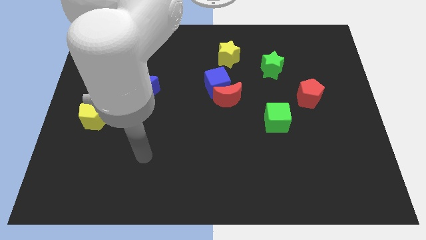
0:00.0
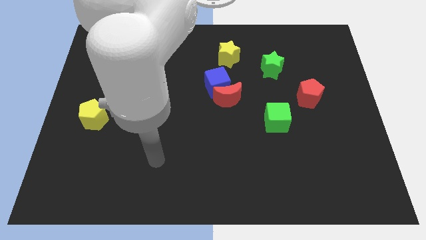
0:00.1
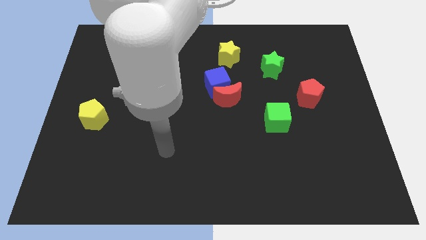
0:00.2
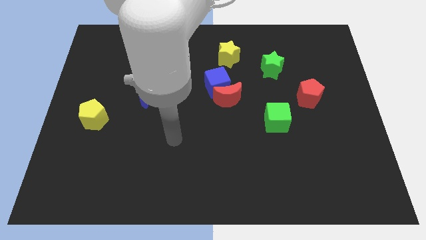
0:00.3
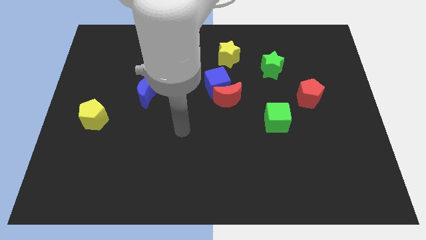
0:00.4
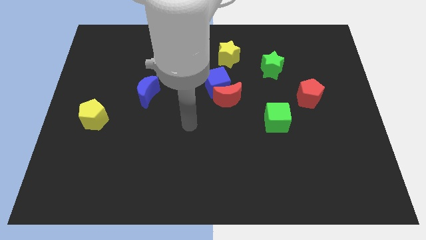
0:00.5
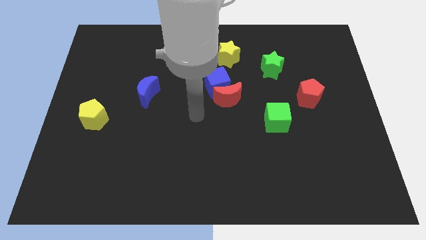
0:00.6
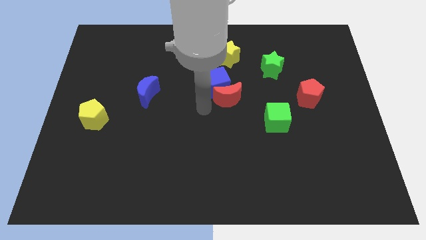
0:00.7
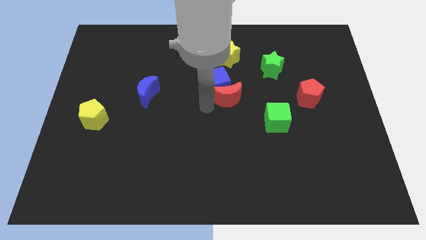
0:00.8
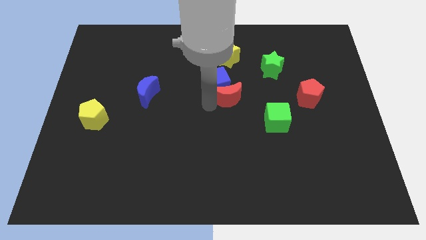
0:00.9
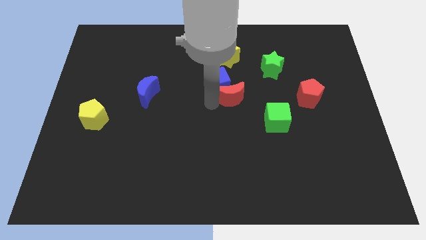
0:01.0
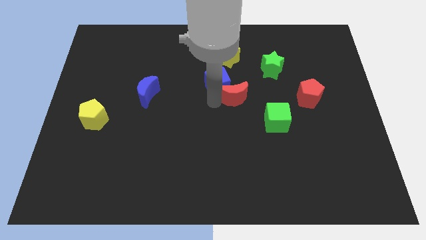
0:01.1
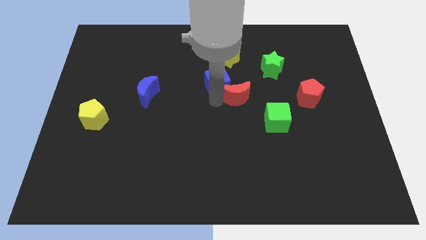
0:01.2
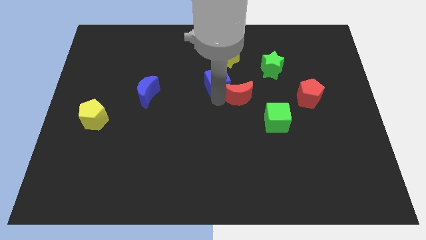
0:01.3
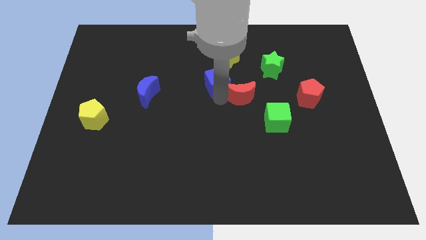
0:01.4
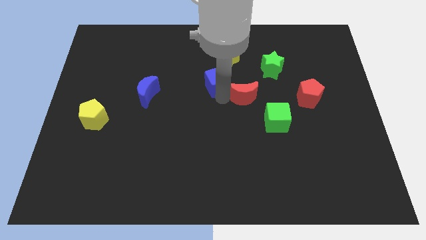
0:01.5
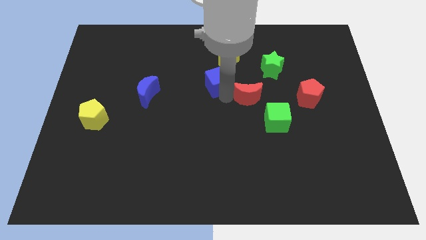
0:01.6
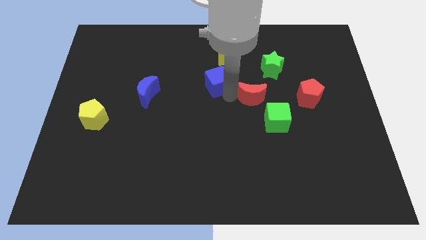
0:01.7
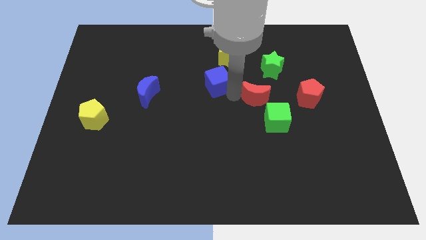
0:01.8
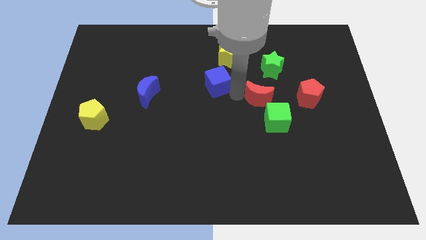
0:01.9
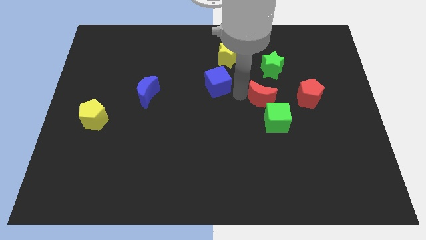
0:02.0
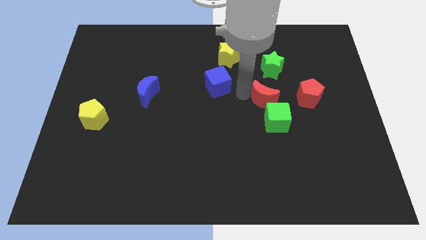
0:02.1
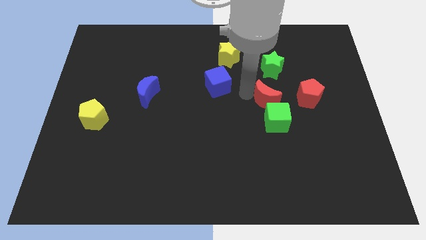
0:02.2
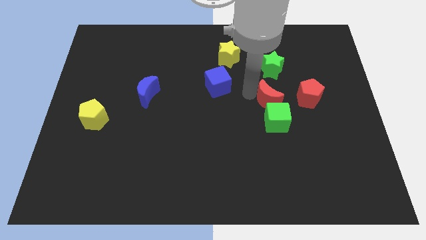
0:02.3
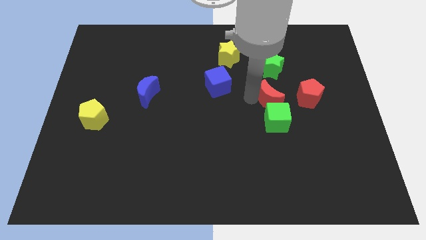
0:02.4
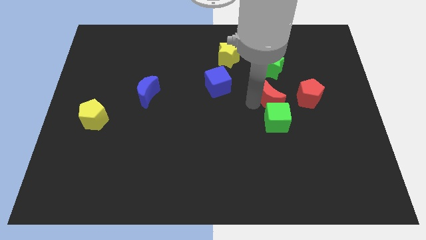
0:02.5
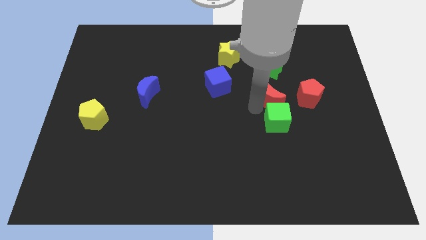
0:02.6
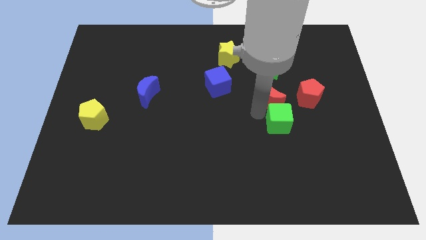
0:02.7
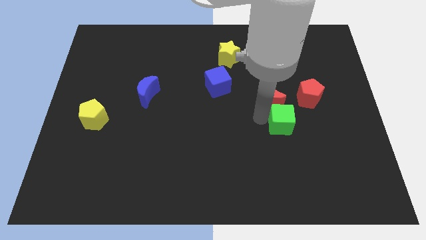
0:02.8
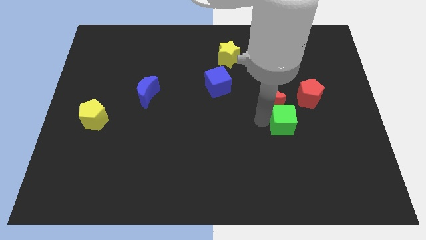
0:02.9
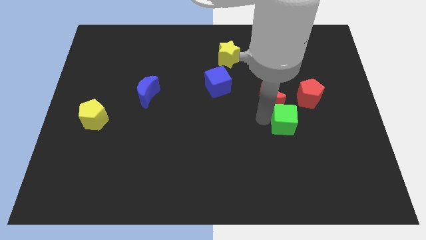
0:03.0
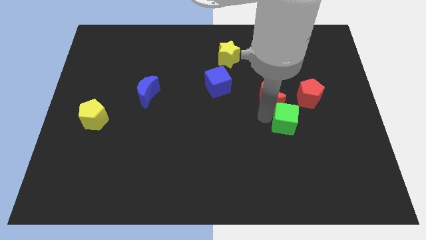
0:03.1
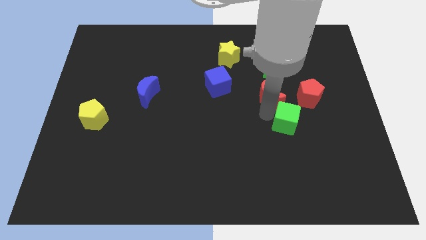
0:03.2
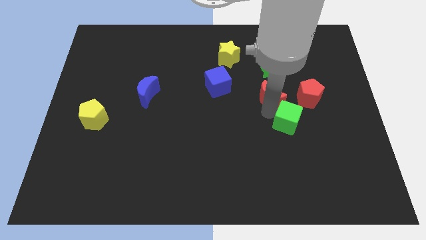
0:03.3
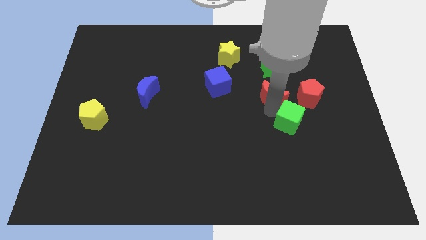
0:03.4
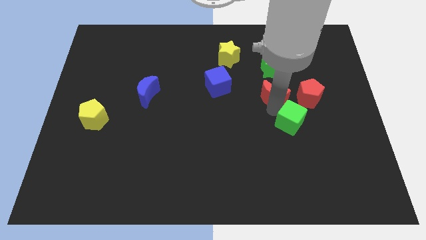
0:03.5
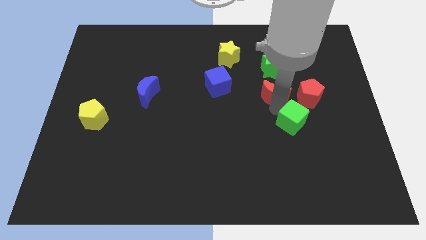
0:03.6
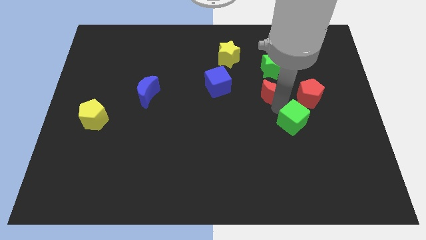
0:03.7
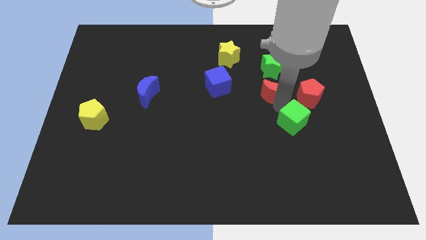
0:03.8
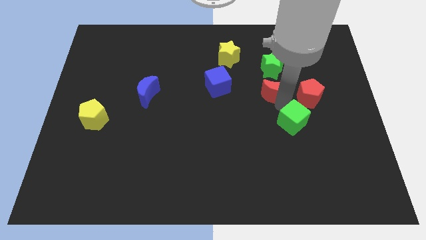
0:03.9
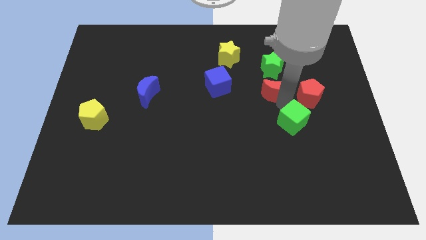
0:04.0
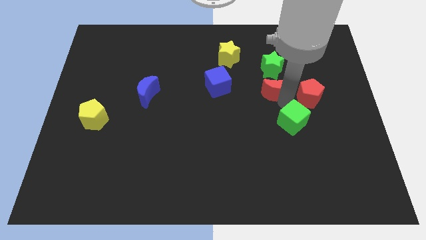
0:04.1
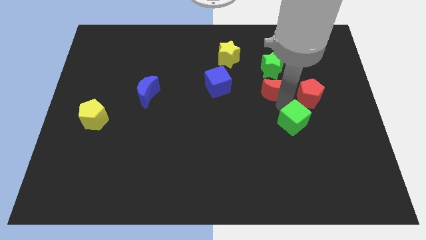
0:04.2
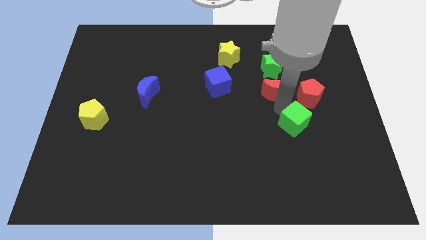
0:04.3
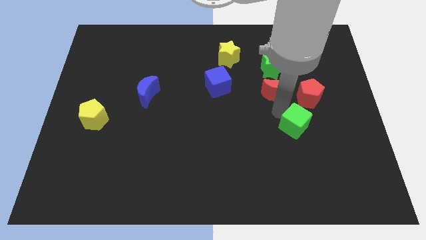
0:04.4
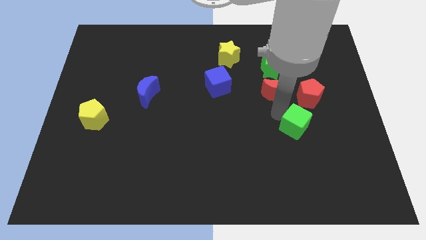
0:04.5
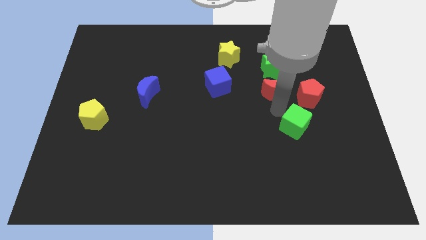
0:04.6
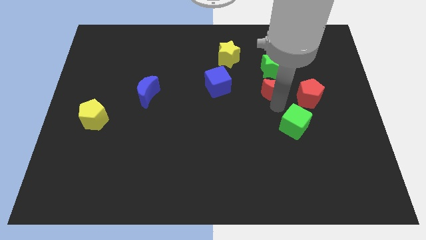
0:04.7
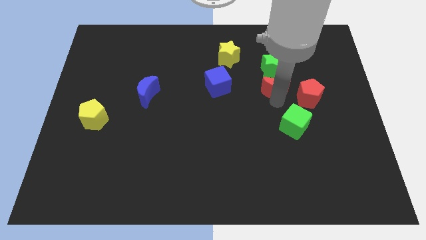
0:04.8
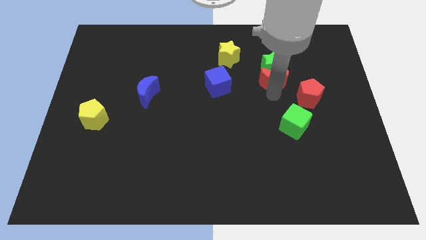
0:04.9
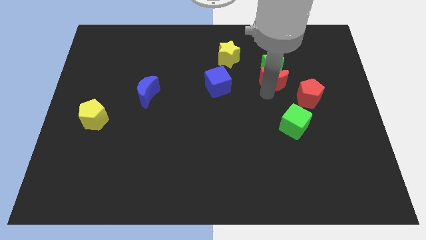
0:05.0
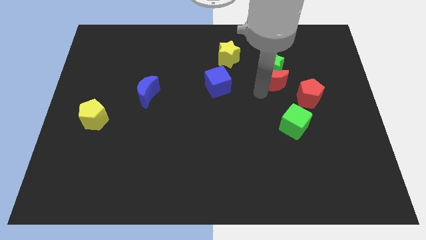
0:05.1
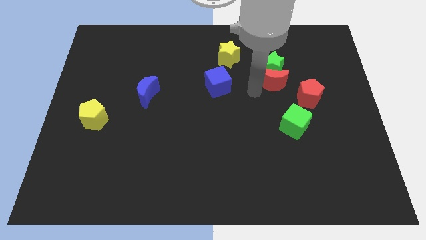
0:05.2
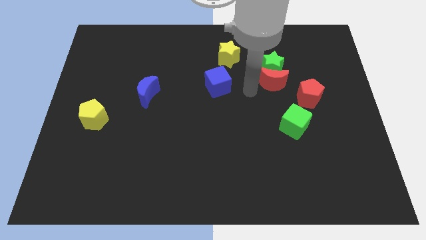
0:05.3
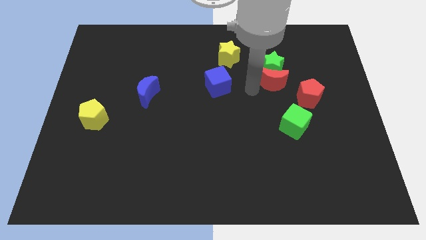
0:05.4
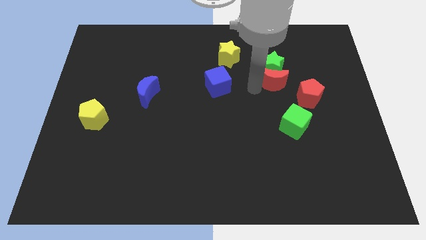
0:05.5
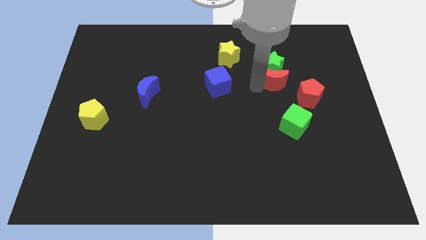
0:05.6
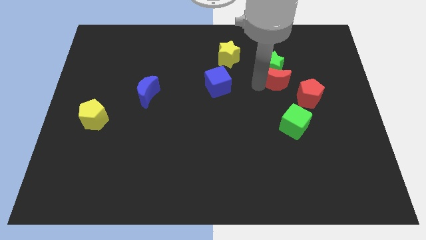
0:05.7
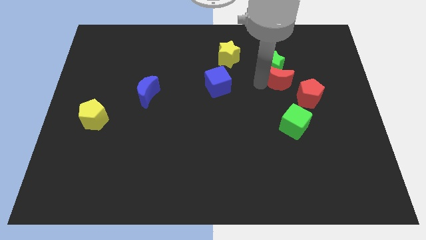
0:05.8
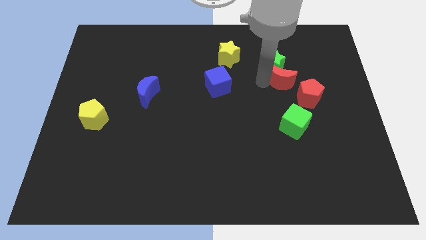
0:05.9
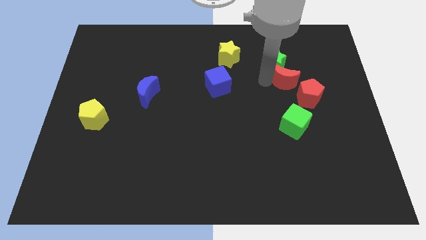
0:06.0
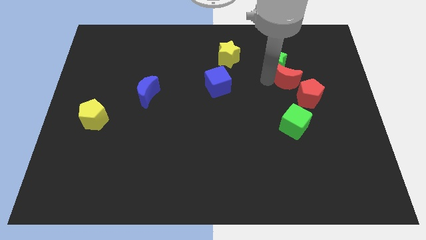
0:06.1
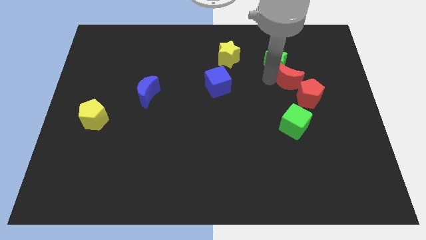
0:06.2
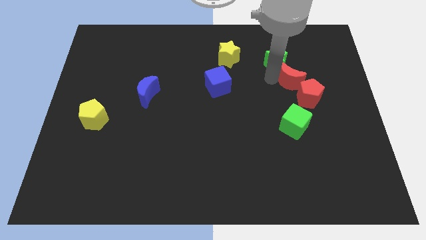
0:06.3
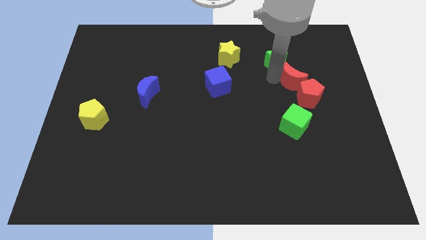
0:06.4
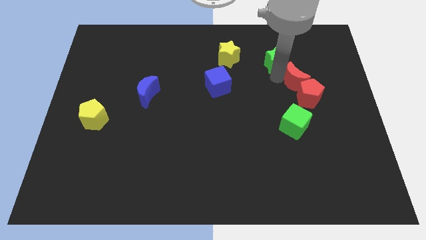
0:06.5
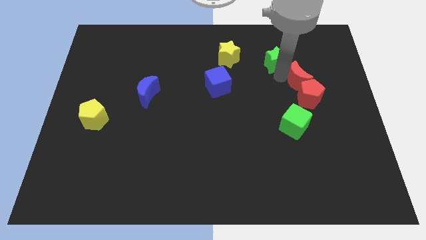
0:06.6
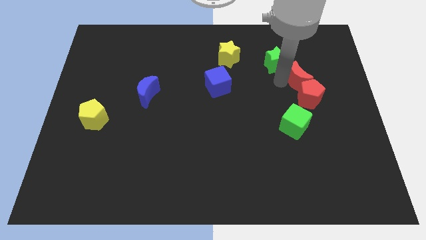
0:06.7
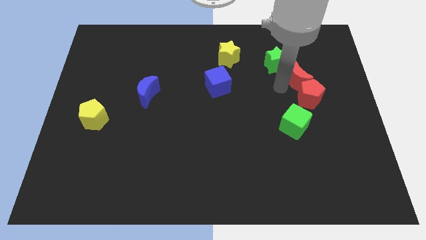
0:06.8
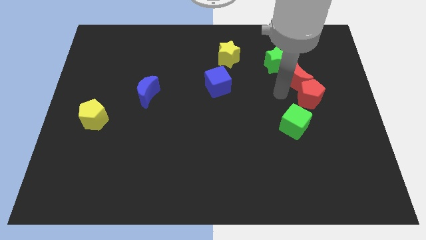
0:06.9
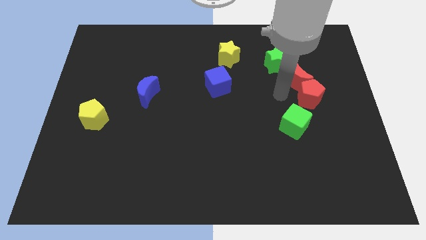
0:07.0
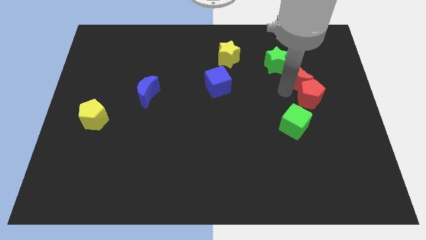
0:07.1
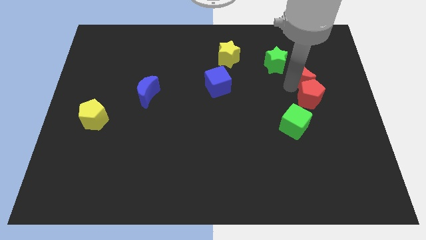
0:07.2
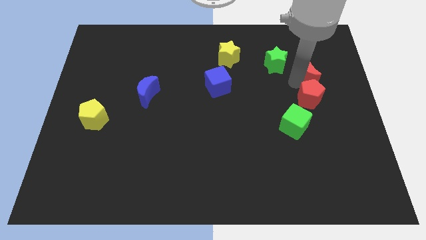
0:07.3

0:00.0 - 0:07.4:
slide the red moon to the right side of the green star
